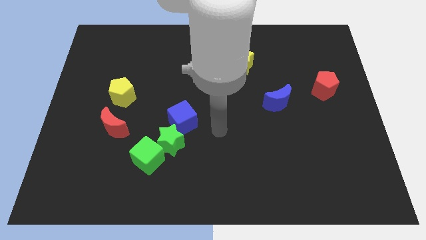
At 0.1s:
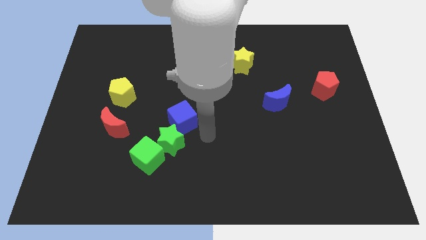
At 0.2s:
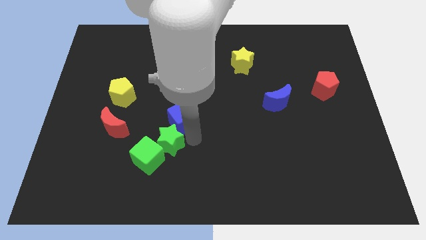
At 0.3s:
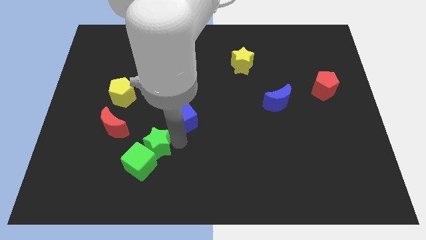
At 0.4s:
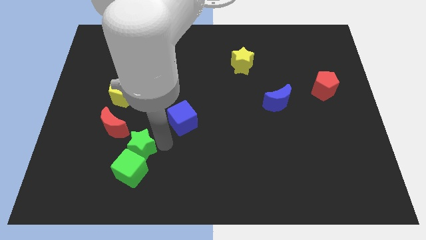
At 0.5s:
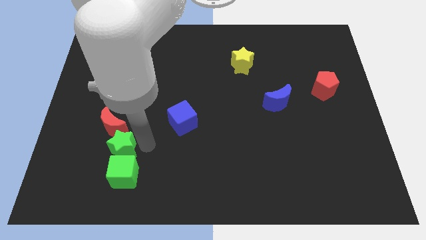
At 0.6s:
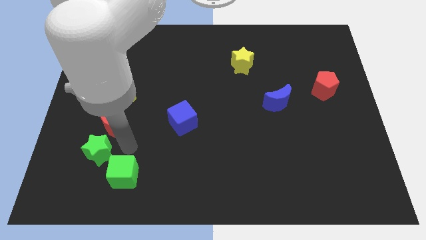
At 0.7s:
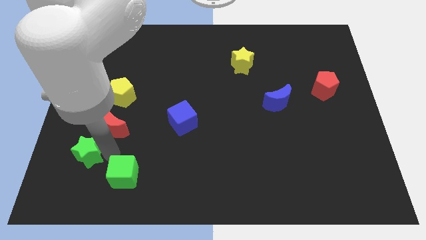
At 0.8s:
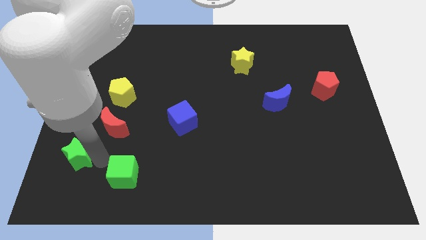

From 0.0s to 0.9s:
separate the green cube from the green star

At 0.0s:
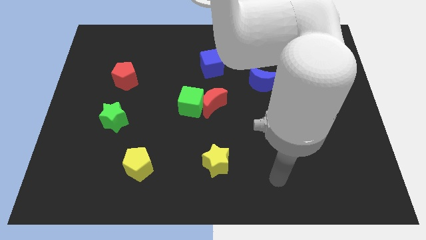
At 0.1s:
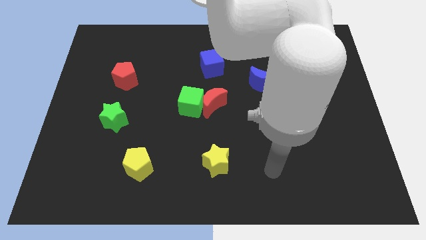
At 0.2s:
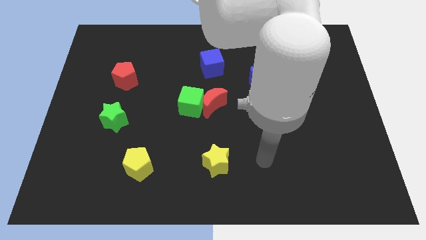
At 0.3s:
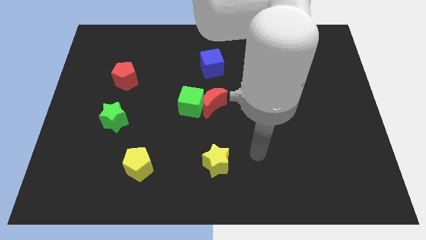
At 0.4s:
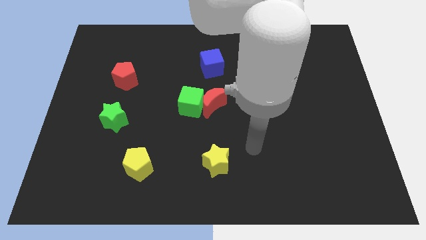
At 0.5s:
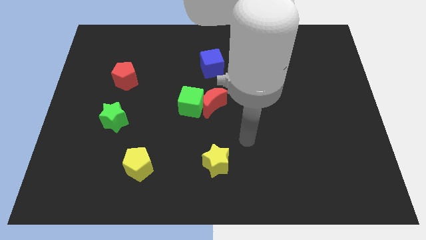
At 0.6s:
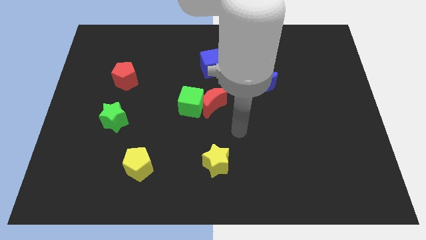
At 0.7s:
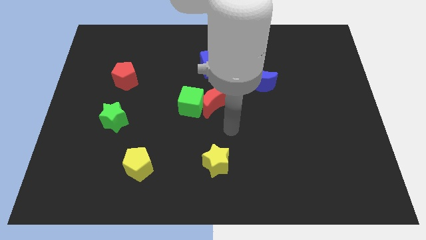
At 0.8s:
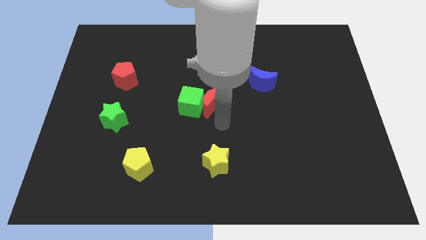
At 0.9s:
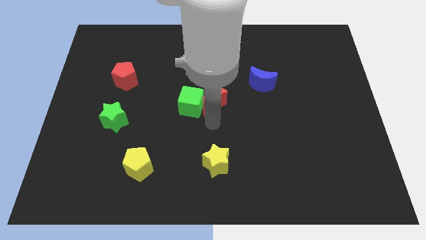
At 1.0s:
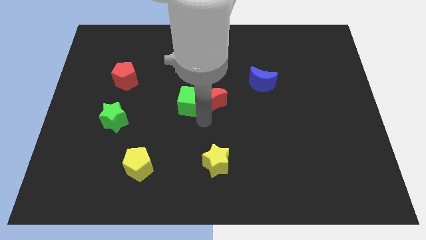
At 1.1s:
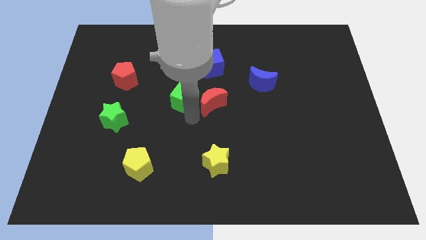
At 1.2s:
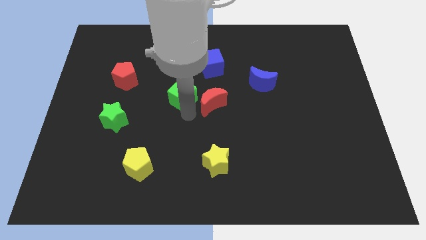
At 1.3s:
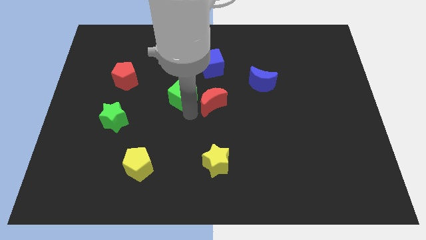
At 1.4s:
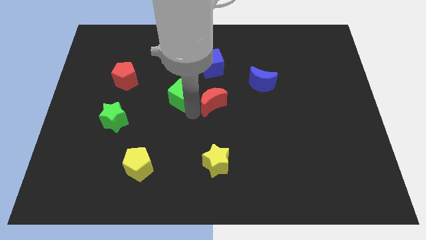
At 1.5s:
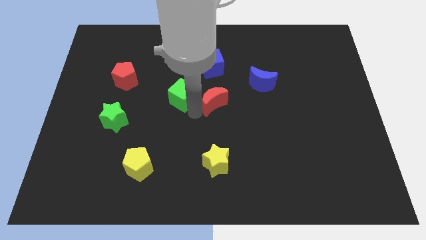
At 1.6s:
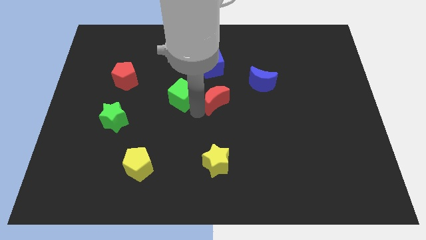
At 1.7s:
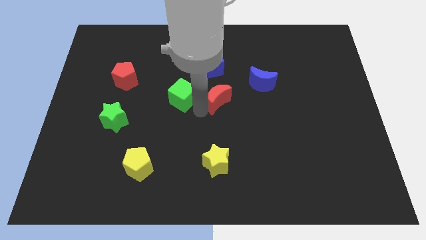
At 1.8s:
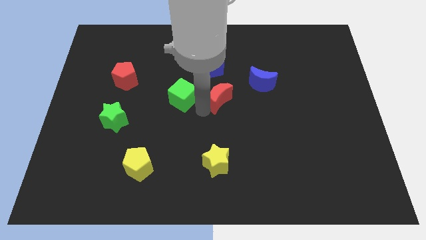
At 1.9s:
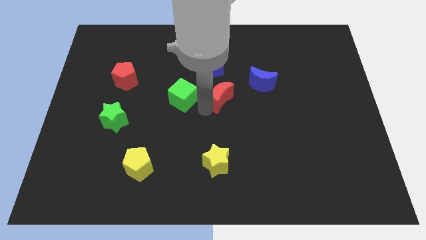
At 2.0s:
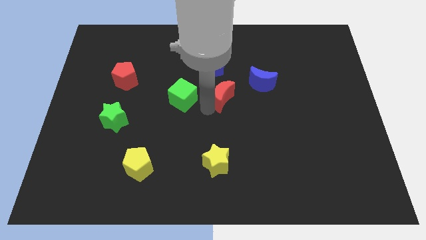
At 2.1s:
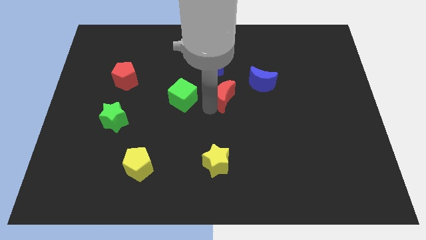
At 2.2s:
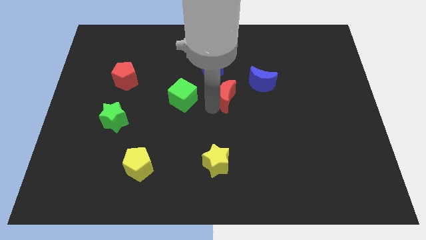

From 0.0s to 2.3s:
separate the red moon from the green cube

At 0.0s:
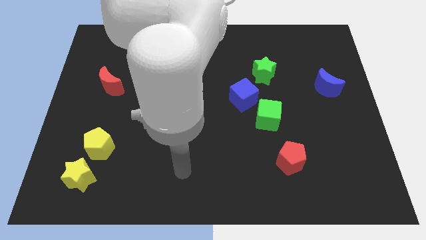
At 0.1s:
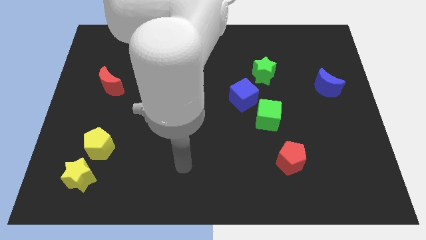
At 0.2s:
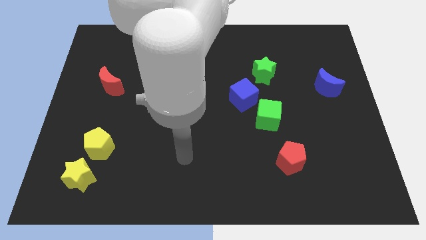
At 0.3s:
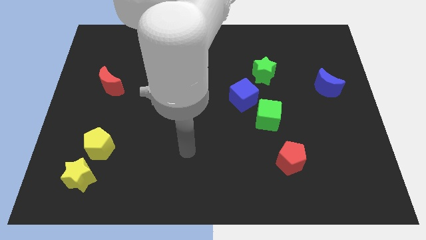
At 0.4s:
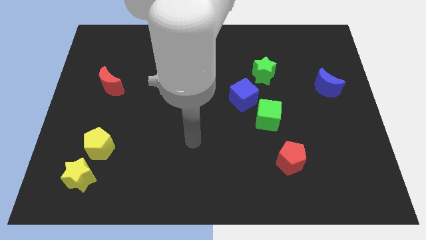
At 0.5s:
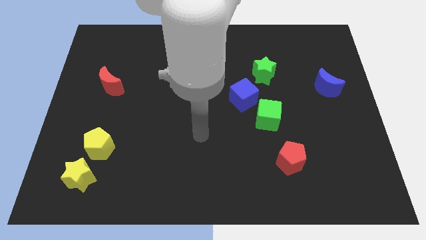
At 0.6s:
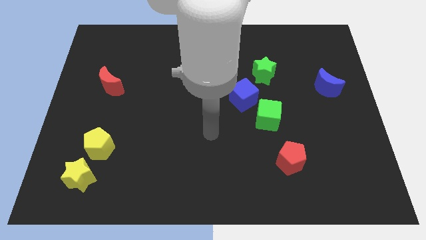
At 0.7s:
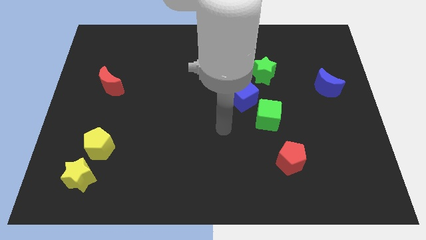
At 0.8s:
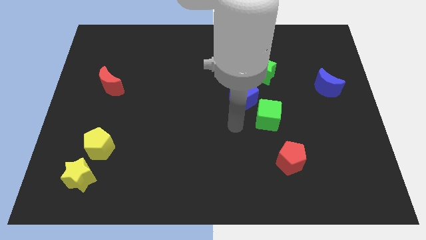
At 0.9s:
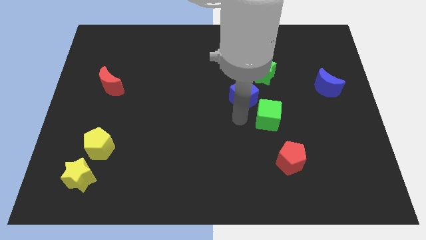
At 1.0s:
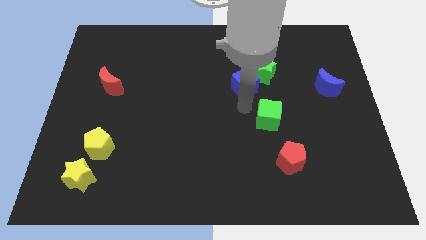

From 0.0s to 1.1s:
move the green cube away from the blue cube

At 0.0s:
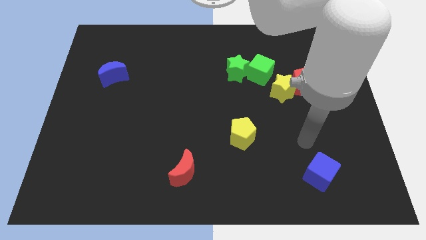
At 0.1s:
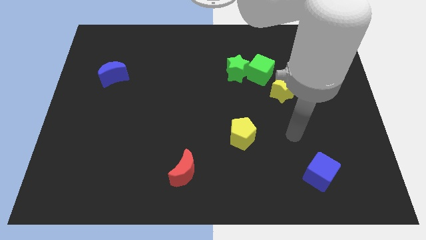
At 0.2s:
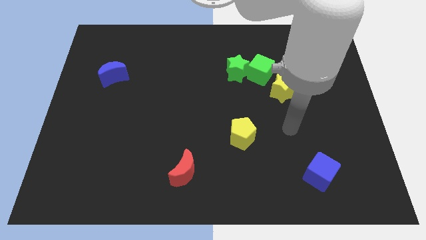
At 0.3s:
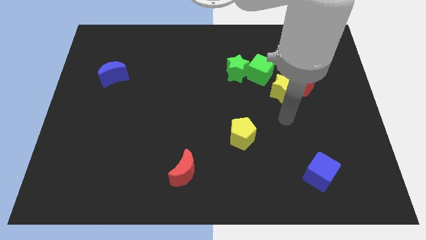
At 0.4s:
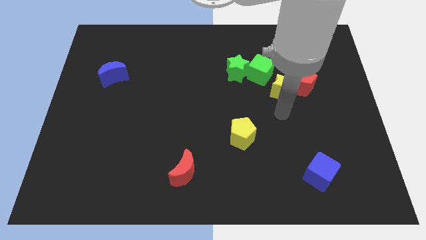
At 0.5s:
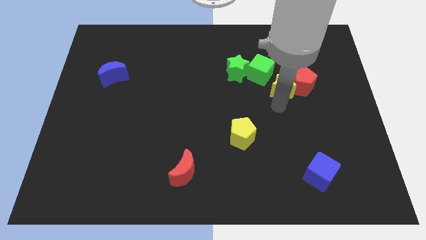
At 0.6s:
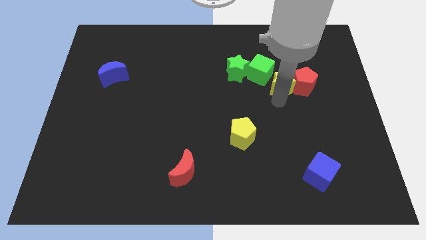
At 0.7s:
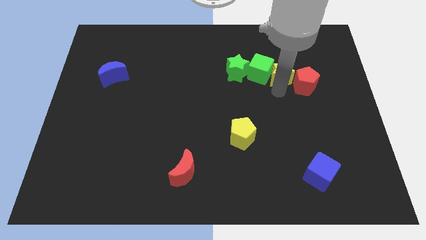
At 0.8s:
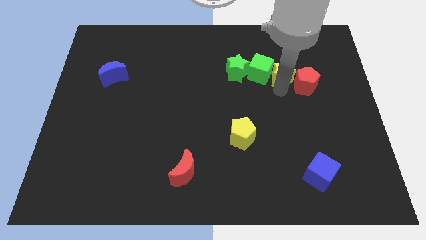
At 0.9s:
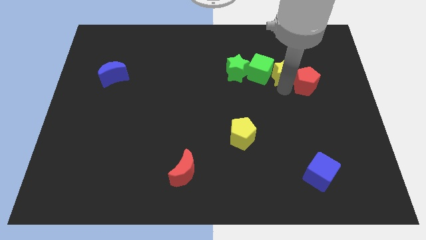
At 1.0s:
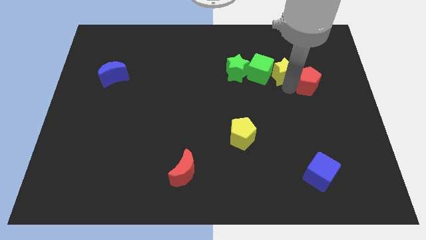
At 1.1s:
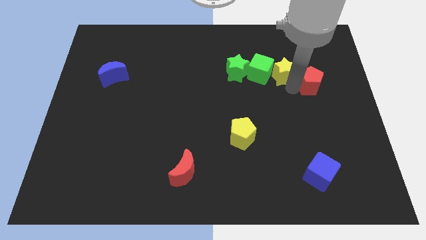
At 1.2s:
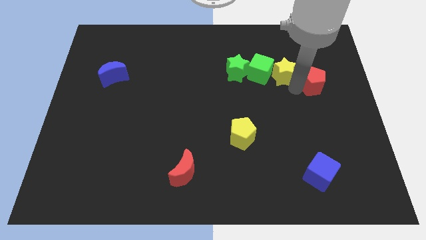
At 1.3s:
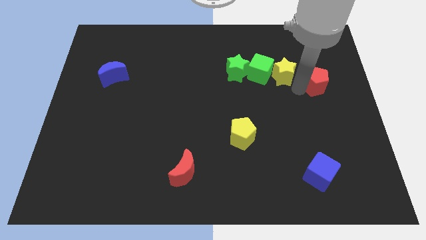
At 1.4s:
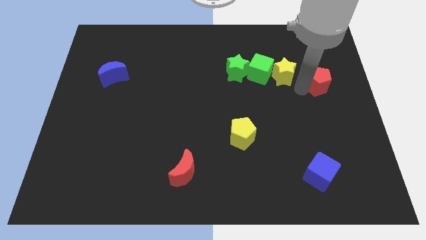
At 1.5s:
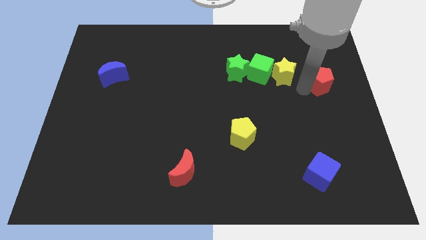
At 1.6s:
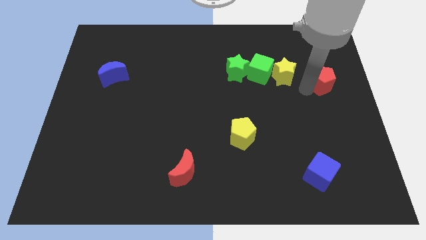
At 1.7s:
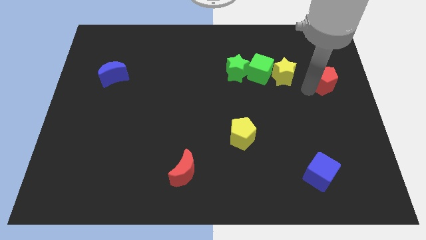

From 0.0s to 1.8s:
pull the red pentagon apart from the yellow star

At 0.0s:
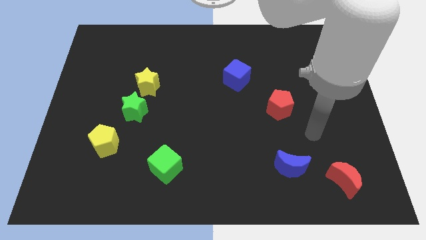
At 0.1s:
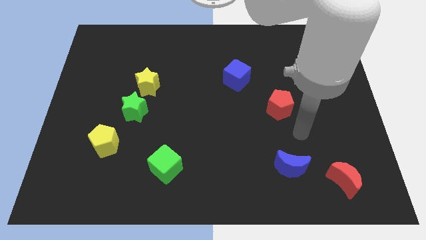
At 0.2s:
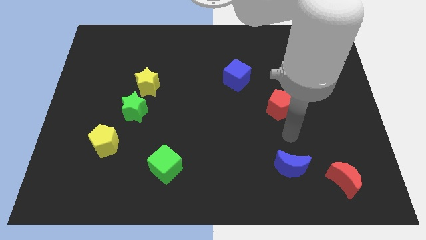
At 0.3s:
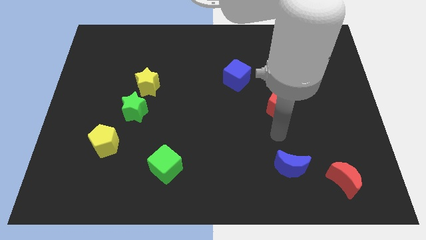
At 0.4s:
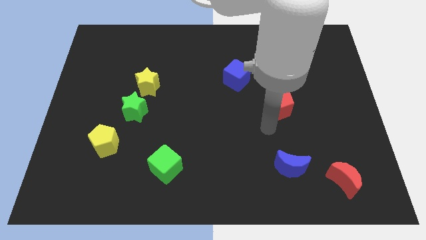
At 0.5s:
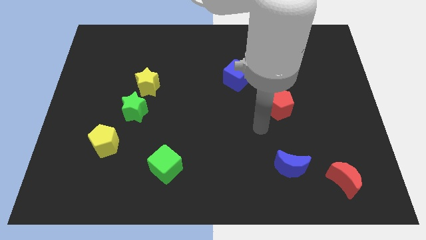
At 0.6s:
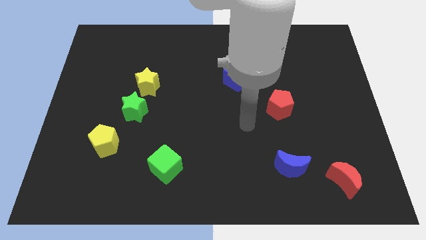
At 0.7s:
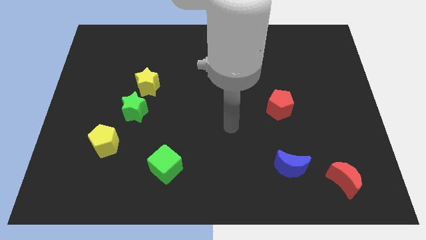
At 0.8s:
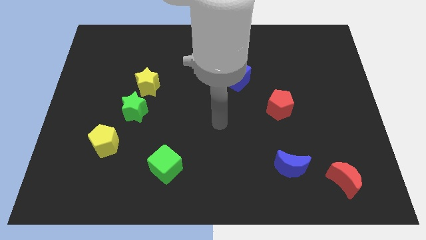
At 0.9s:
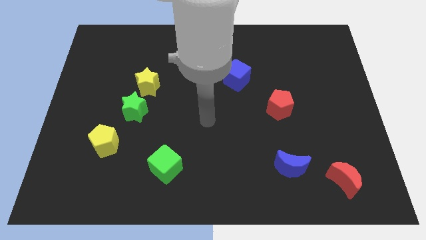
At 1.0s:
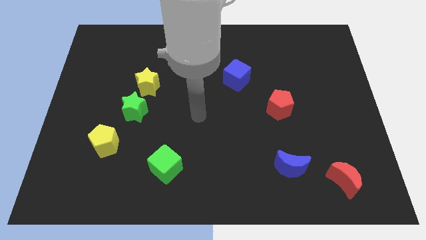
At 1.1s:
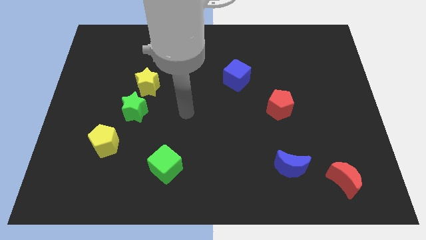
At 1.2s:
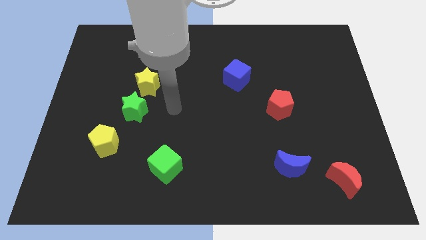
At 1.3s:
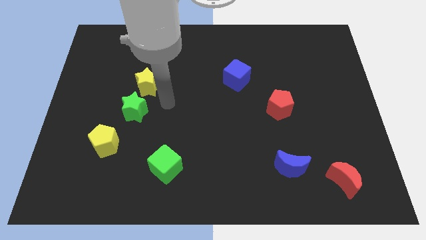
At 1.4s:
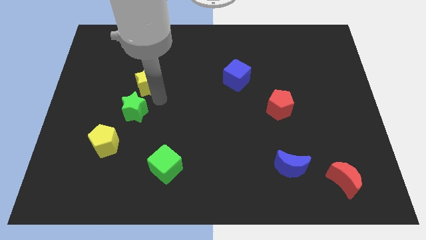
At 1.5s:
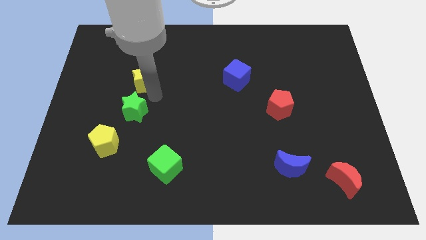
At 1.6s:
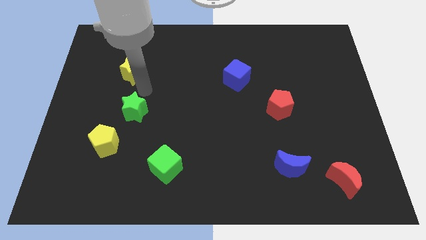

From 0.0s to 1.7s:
separate the green star from the yellow star

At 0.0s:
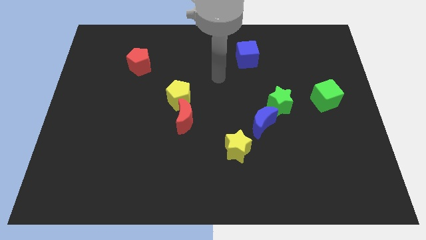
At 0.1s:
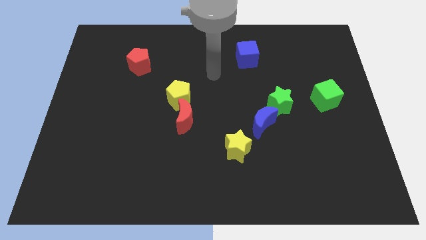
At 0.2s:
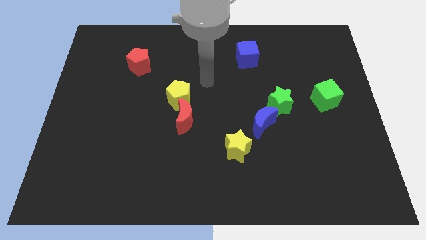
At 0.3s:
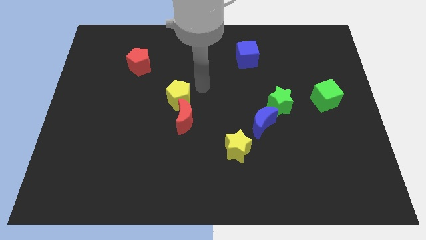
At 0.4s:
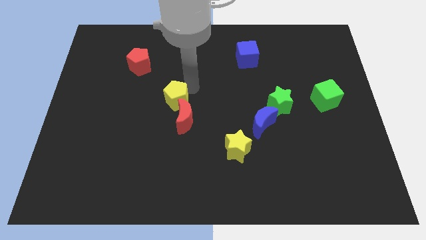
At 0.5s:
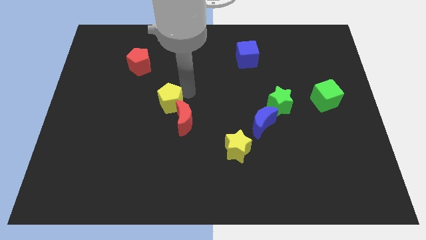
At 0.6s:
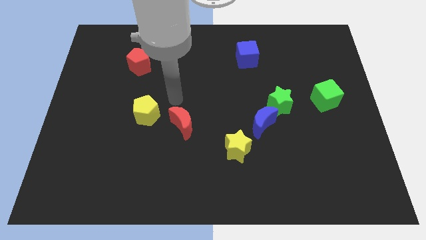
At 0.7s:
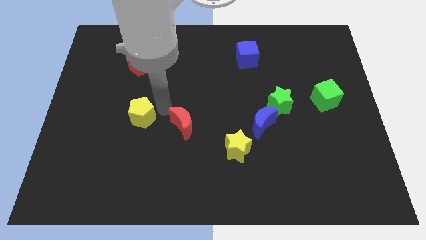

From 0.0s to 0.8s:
separate the red moon from the yellow pentagon

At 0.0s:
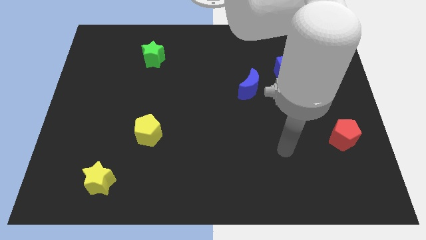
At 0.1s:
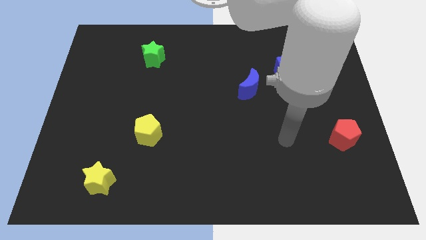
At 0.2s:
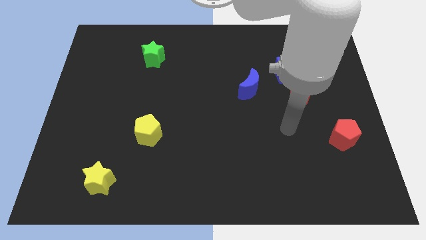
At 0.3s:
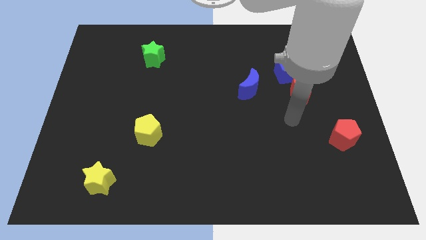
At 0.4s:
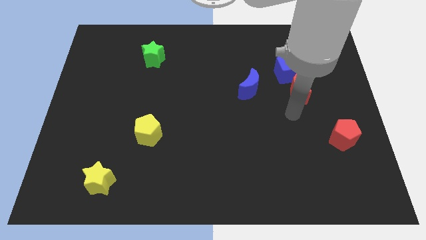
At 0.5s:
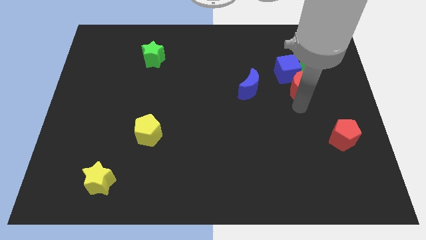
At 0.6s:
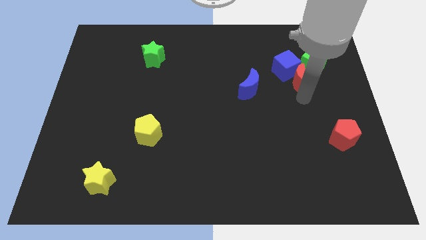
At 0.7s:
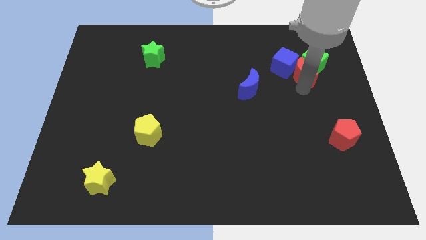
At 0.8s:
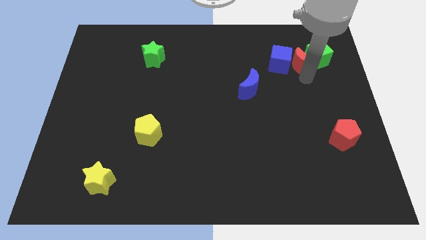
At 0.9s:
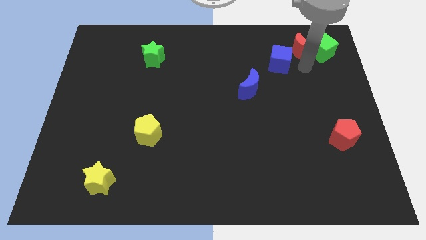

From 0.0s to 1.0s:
move the blue cube away from the red moon and green cube
